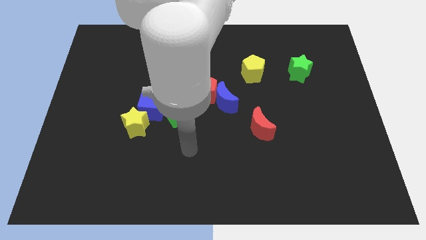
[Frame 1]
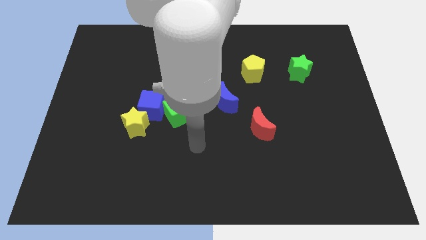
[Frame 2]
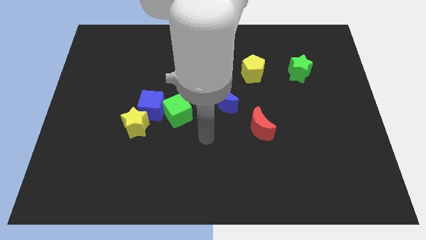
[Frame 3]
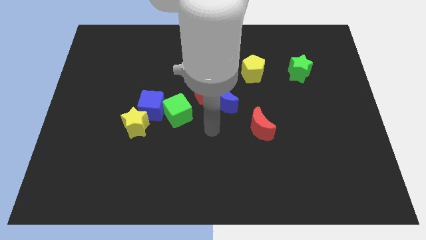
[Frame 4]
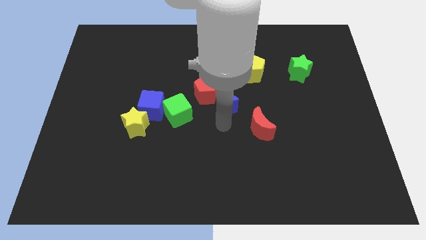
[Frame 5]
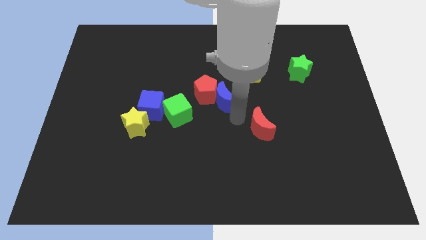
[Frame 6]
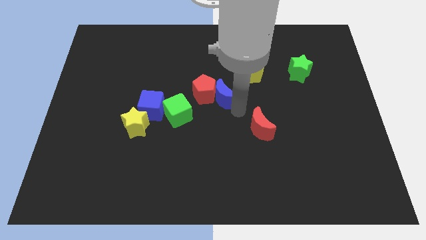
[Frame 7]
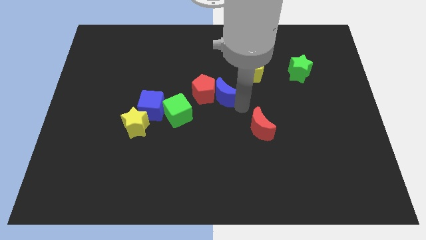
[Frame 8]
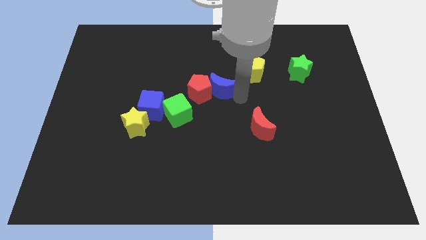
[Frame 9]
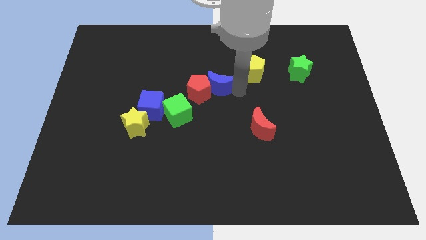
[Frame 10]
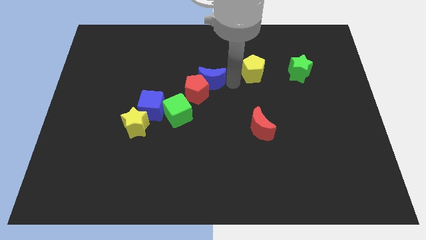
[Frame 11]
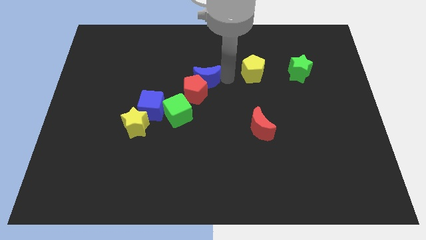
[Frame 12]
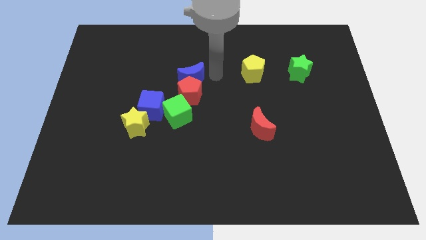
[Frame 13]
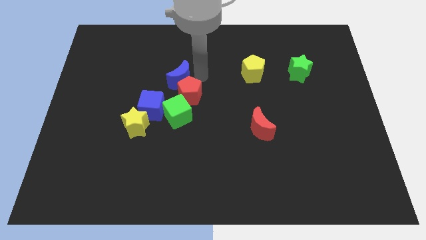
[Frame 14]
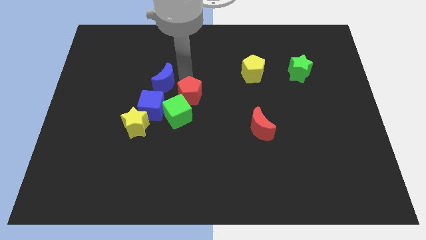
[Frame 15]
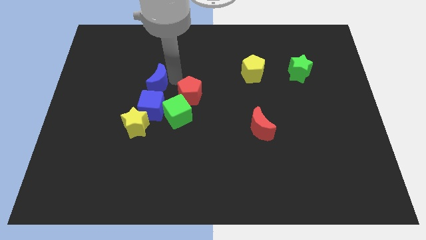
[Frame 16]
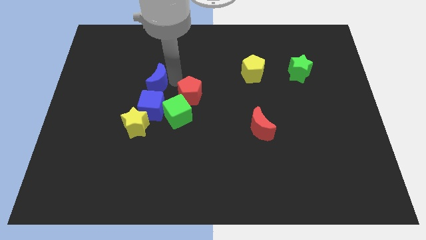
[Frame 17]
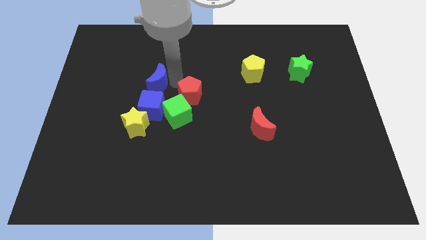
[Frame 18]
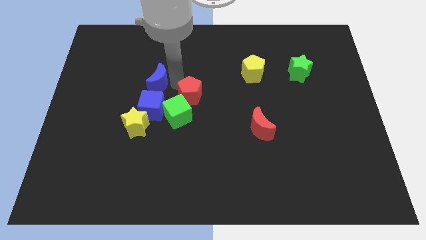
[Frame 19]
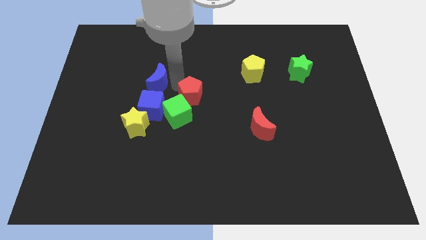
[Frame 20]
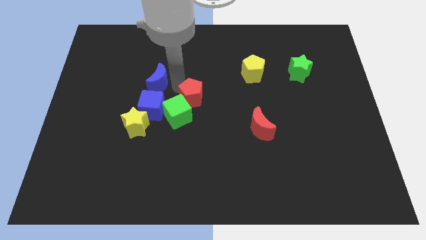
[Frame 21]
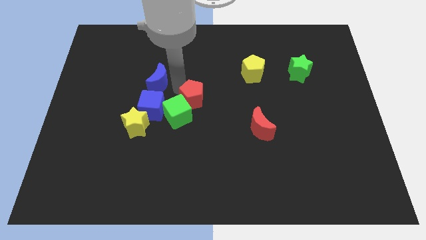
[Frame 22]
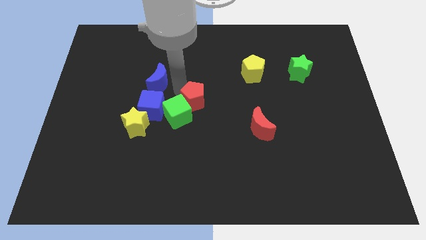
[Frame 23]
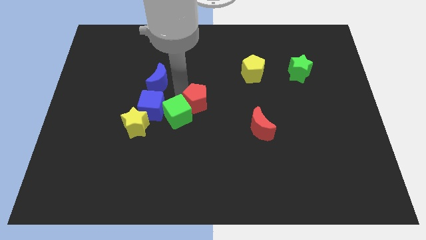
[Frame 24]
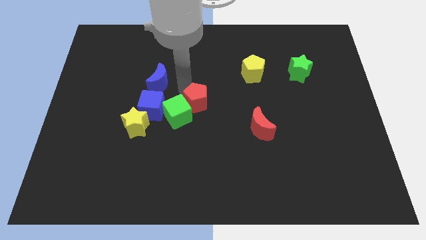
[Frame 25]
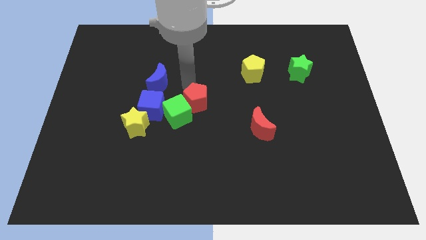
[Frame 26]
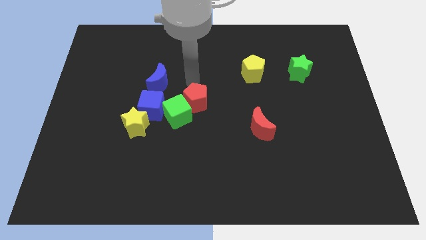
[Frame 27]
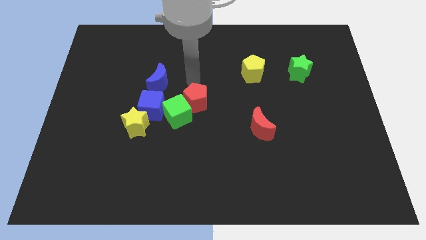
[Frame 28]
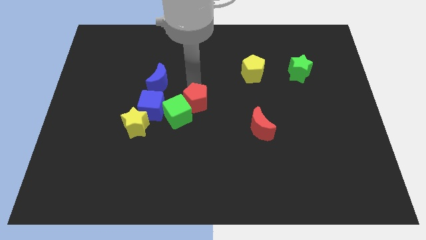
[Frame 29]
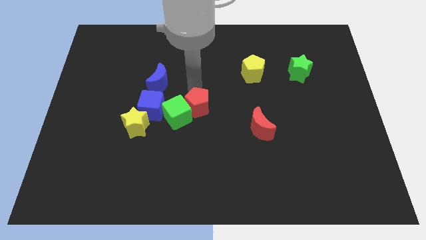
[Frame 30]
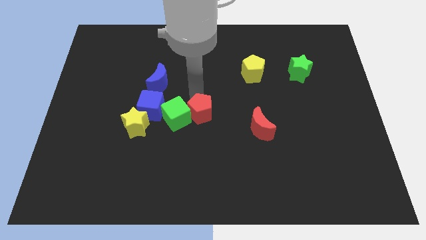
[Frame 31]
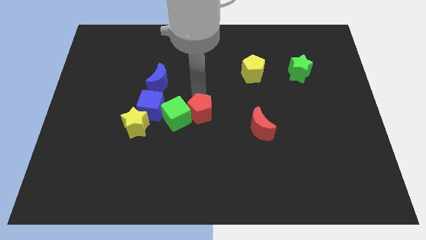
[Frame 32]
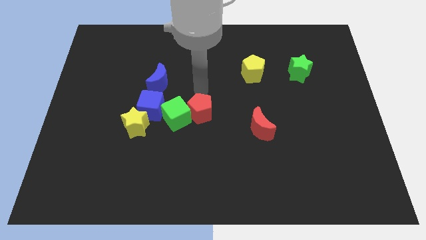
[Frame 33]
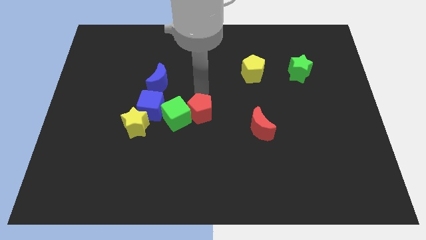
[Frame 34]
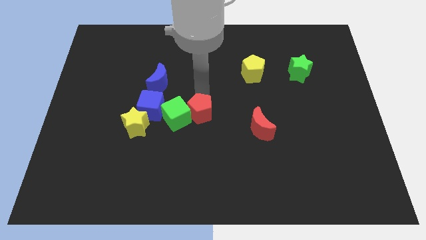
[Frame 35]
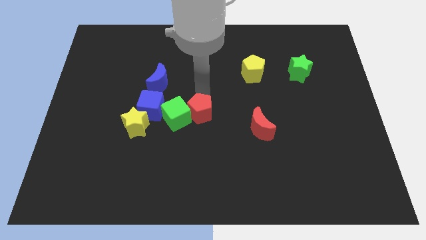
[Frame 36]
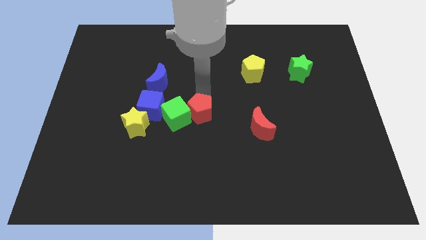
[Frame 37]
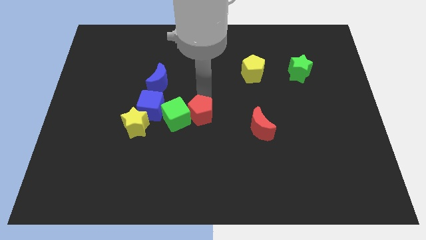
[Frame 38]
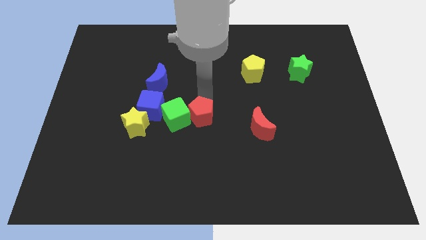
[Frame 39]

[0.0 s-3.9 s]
slightly slide the red pentagon down

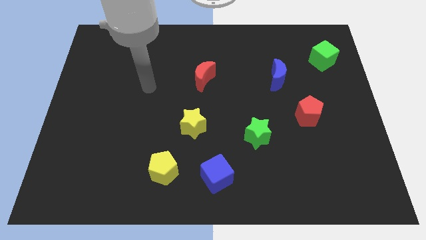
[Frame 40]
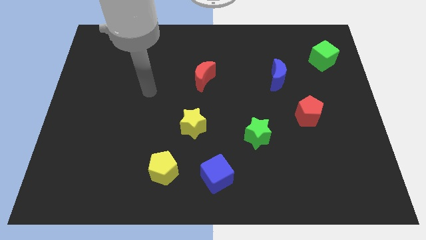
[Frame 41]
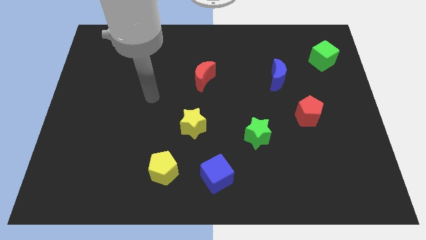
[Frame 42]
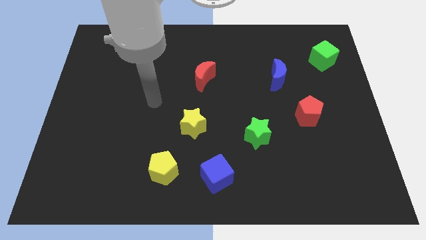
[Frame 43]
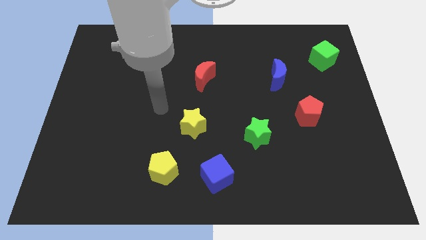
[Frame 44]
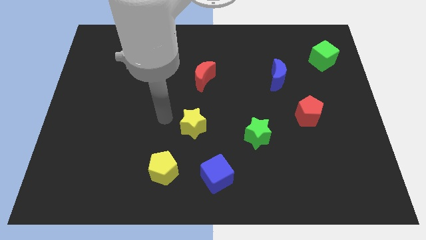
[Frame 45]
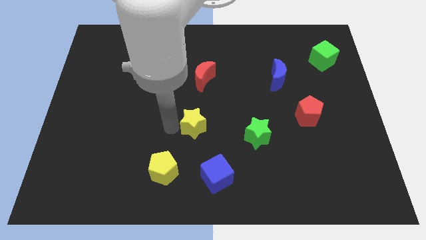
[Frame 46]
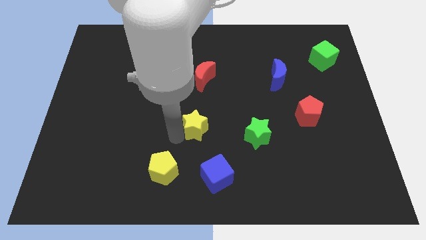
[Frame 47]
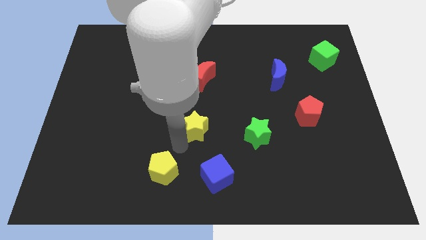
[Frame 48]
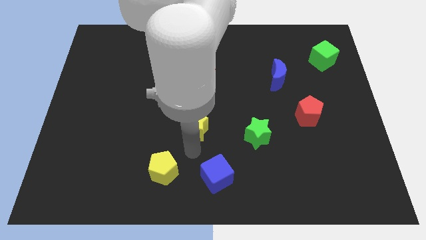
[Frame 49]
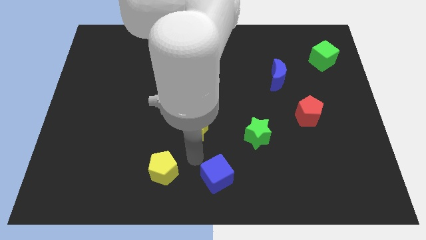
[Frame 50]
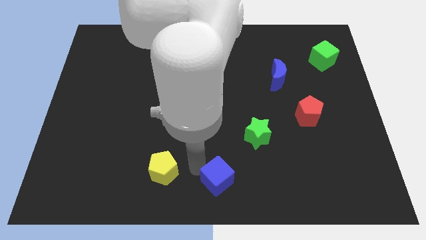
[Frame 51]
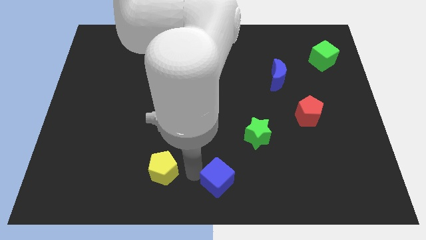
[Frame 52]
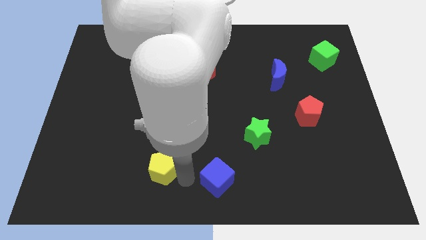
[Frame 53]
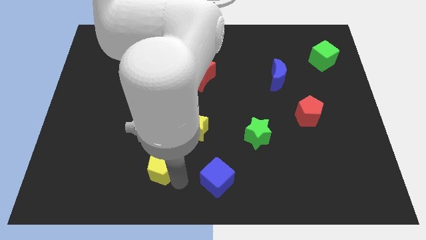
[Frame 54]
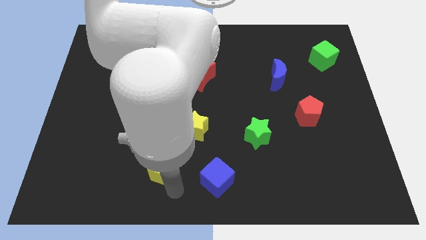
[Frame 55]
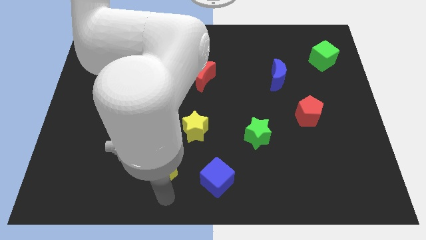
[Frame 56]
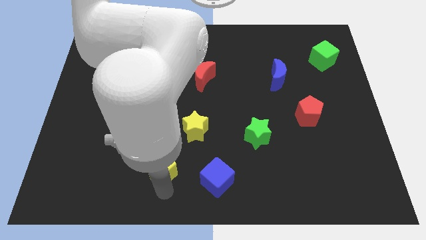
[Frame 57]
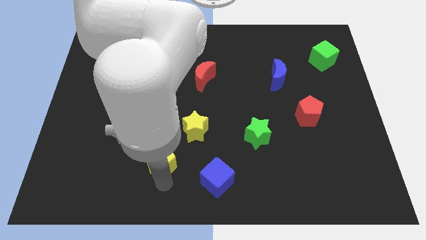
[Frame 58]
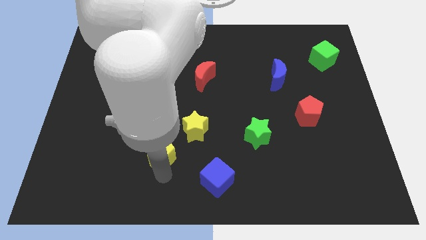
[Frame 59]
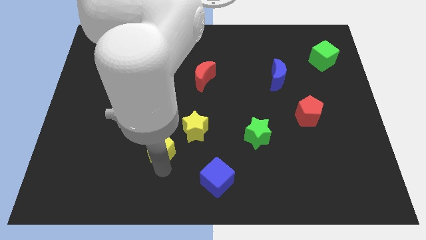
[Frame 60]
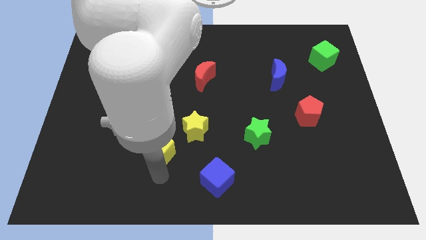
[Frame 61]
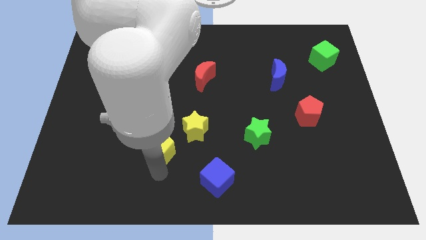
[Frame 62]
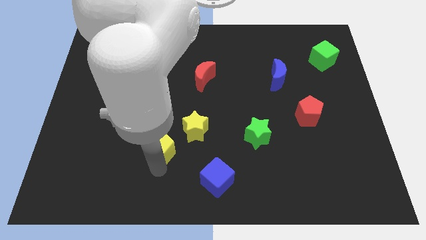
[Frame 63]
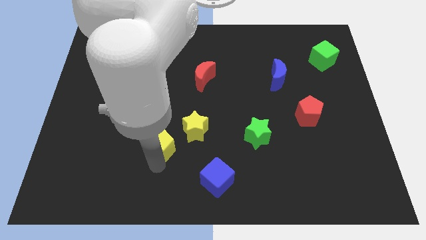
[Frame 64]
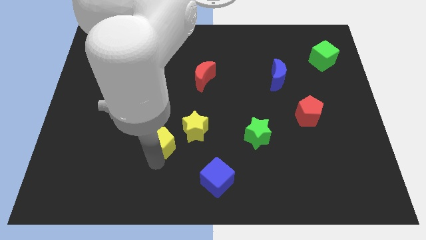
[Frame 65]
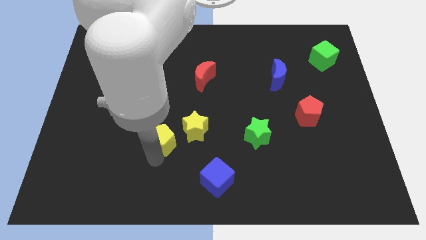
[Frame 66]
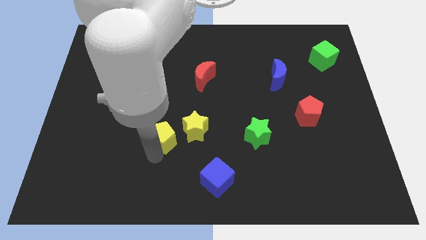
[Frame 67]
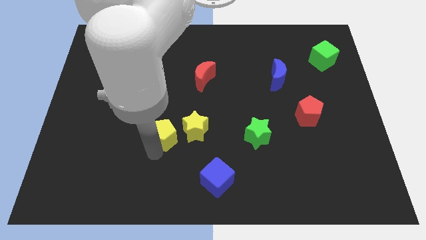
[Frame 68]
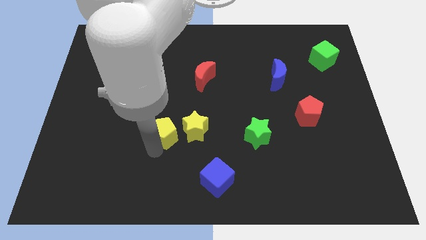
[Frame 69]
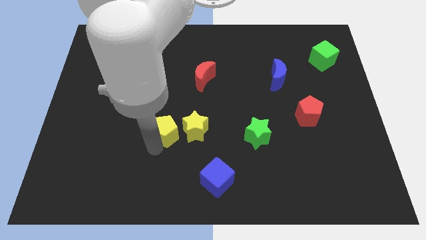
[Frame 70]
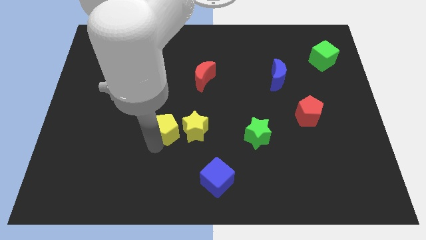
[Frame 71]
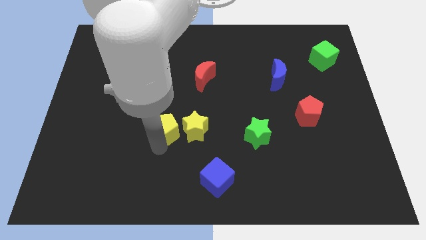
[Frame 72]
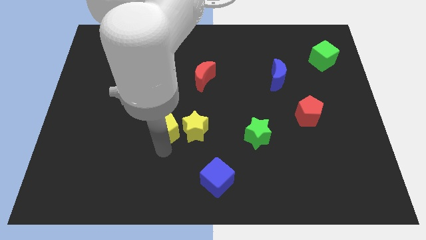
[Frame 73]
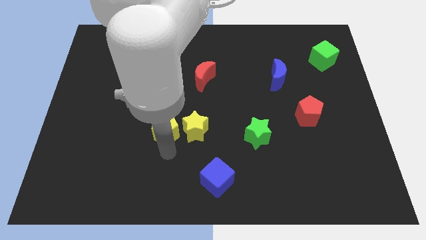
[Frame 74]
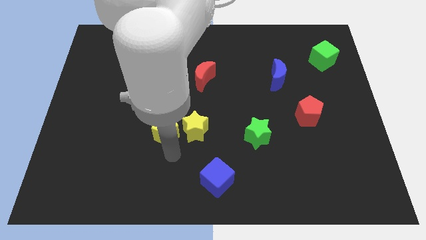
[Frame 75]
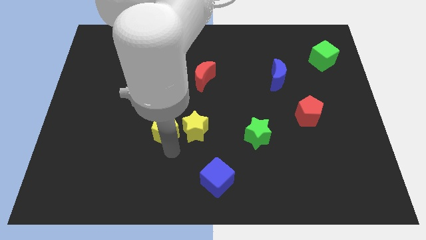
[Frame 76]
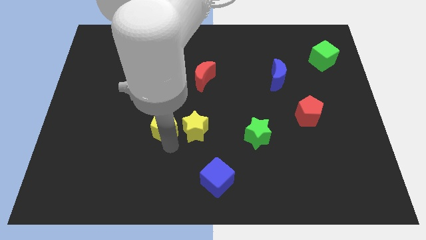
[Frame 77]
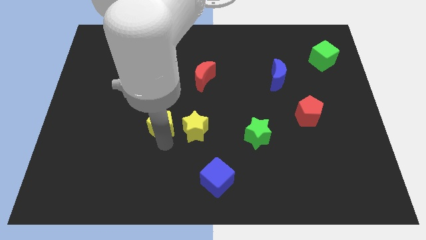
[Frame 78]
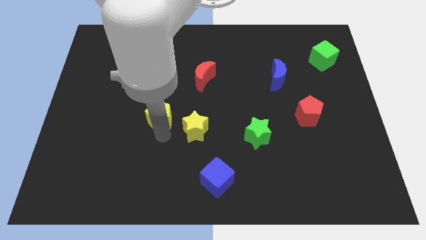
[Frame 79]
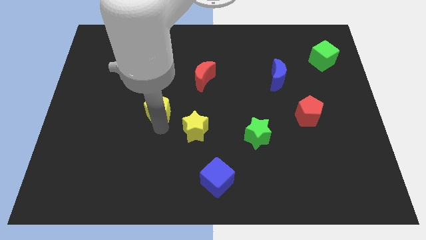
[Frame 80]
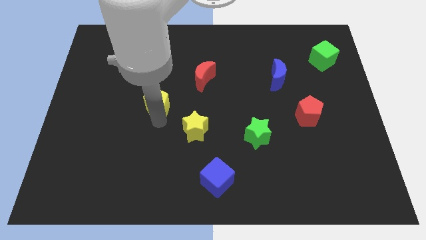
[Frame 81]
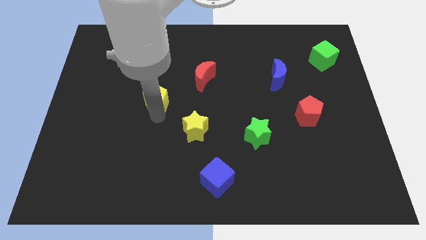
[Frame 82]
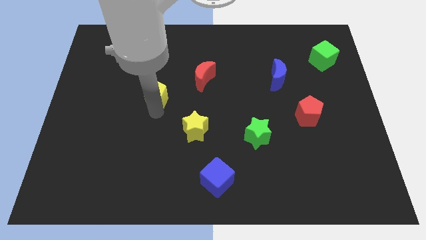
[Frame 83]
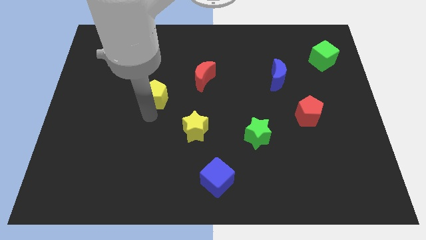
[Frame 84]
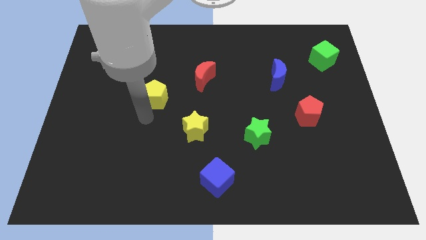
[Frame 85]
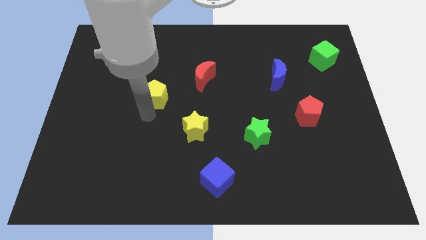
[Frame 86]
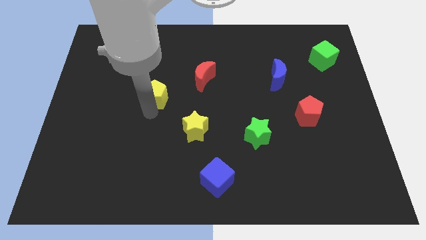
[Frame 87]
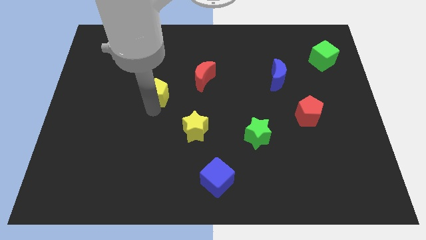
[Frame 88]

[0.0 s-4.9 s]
move the yellow pentagon upwards
